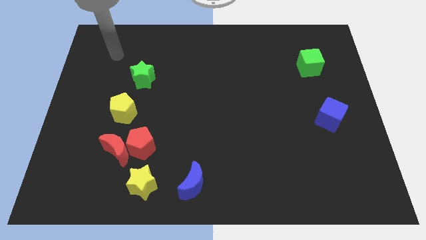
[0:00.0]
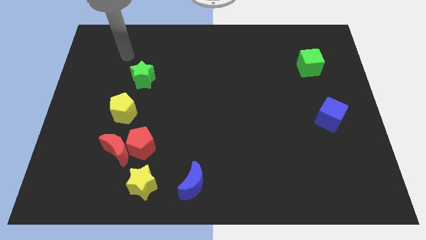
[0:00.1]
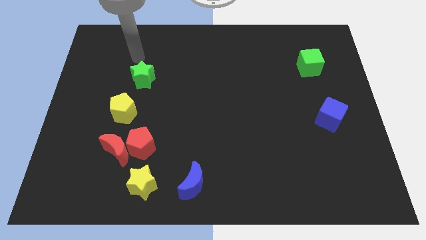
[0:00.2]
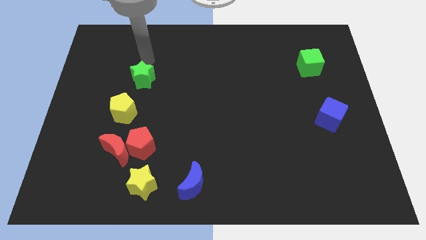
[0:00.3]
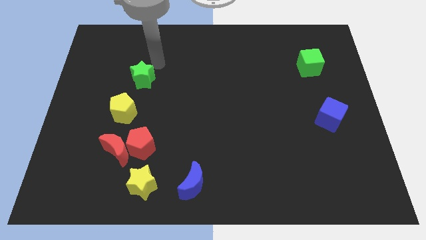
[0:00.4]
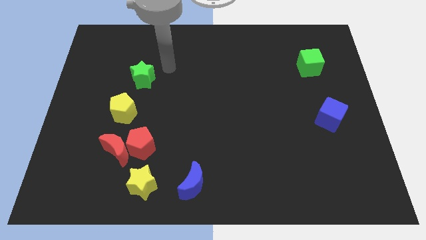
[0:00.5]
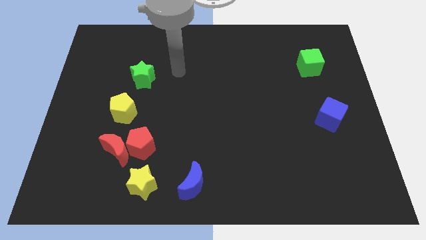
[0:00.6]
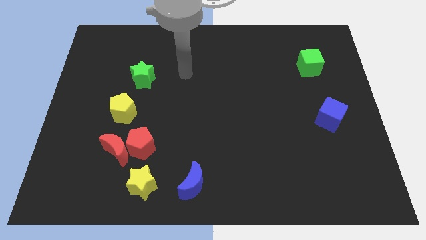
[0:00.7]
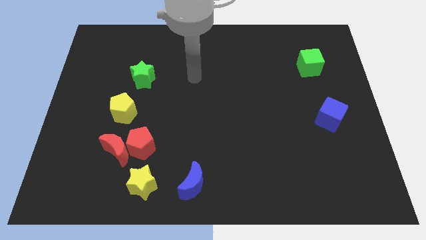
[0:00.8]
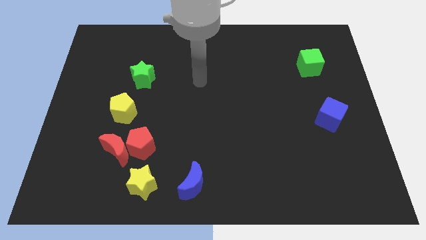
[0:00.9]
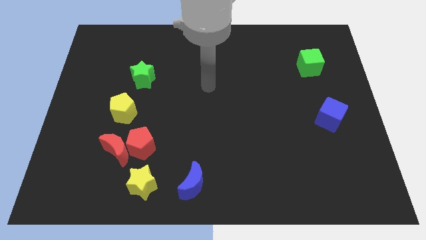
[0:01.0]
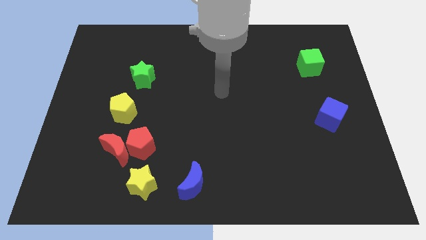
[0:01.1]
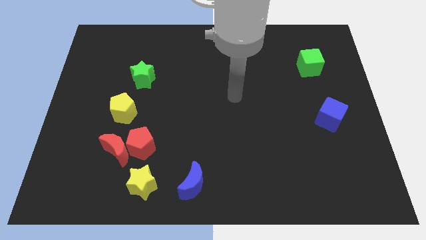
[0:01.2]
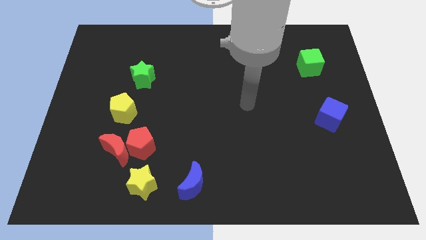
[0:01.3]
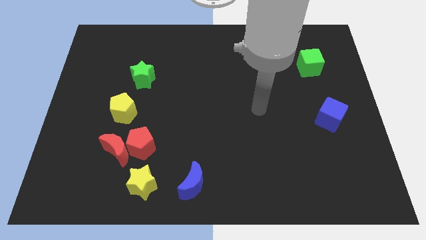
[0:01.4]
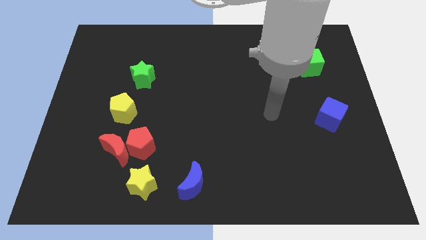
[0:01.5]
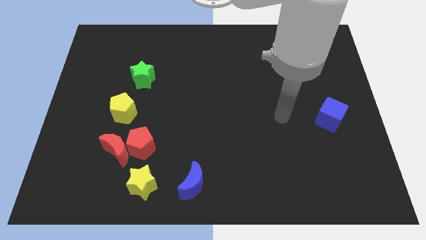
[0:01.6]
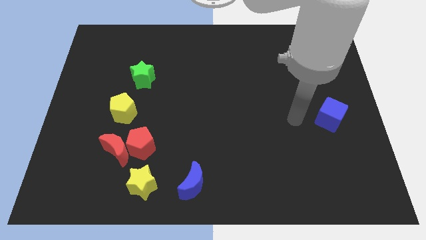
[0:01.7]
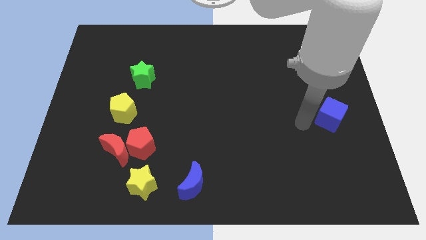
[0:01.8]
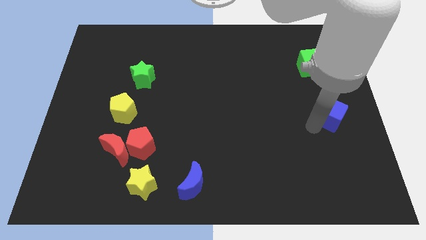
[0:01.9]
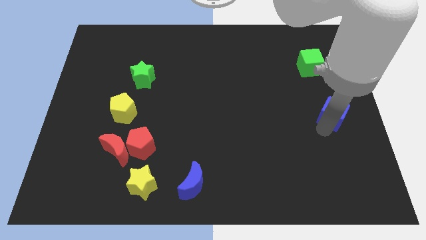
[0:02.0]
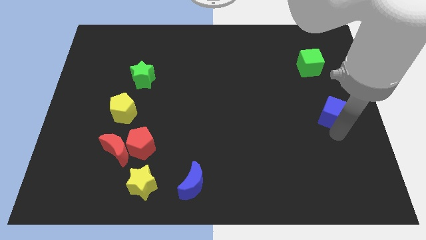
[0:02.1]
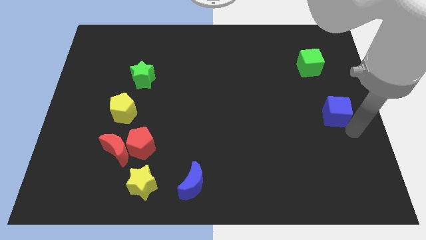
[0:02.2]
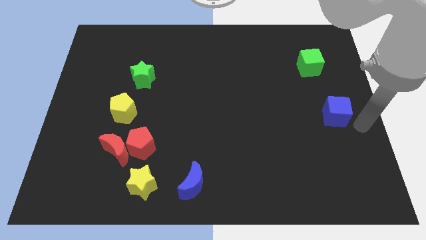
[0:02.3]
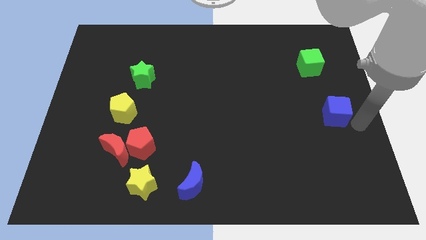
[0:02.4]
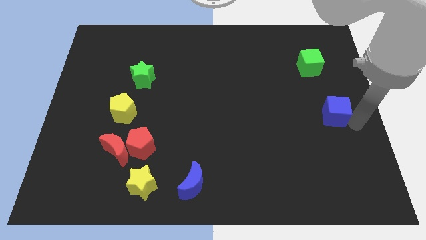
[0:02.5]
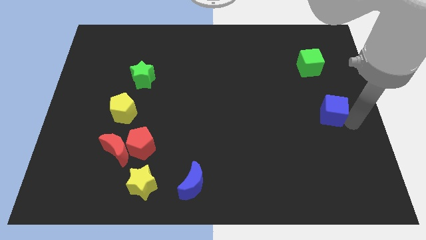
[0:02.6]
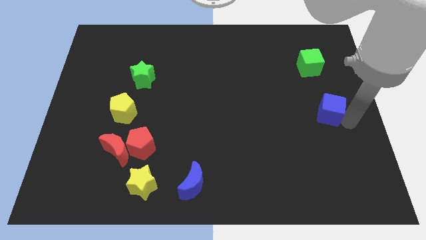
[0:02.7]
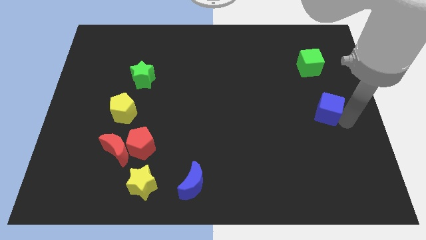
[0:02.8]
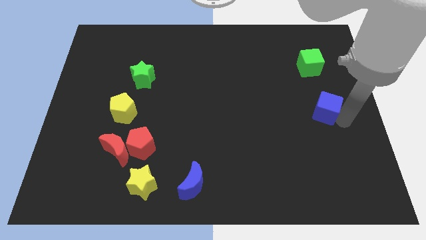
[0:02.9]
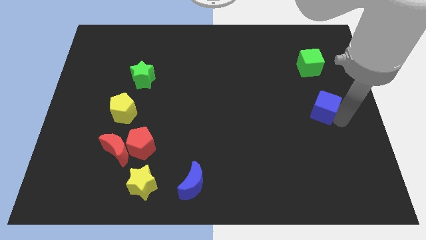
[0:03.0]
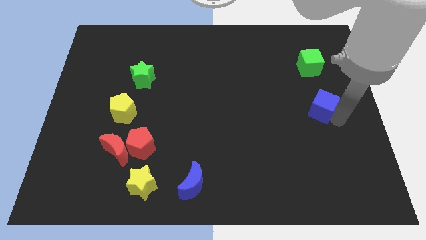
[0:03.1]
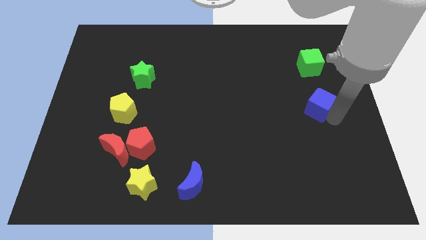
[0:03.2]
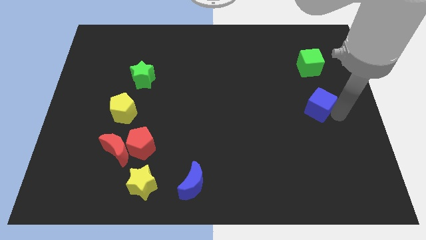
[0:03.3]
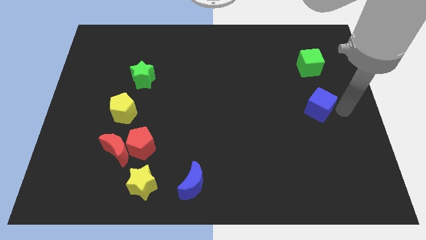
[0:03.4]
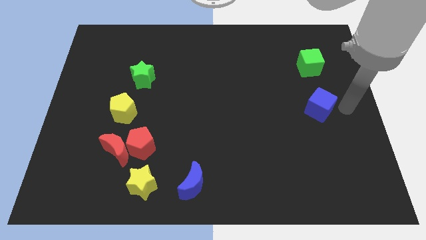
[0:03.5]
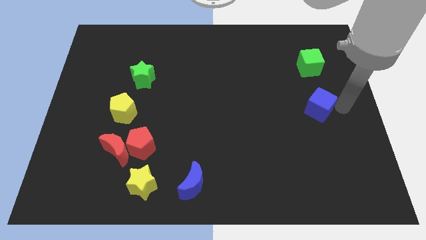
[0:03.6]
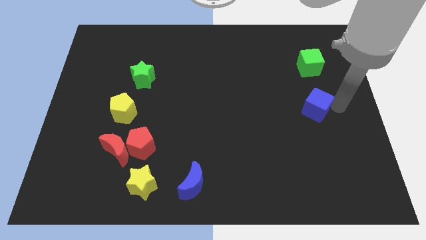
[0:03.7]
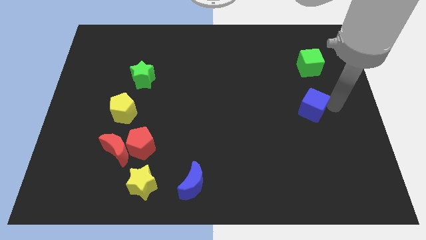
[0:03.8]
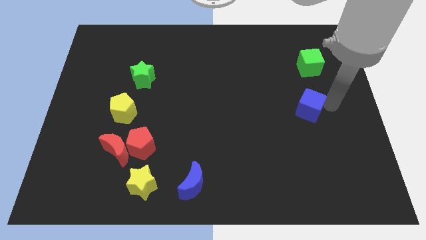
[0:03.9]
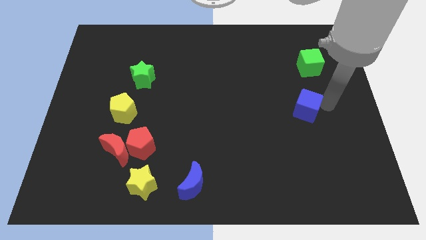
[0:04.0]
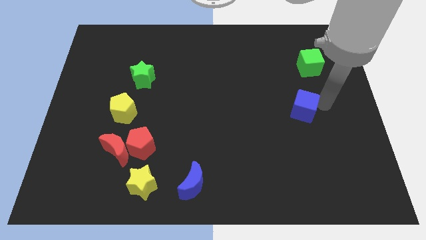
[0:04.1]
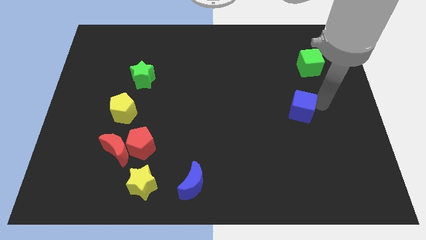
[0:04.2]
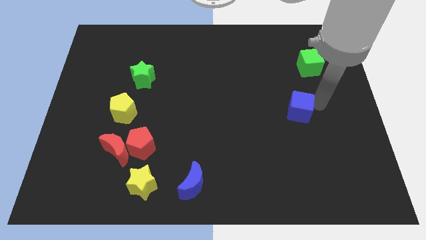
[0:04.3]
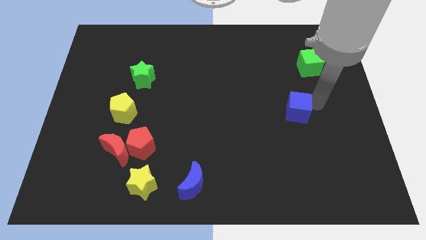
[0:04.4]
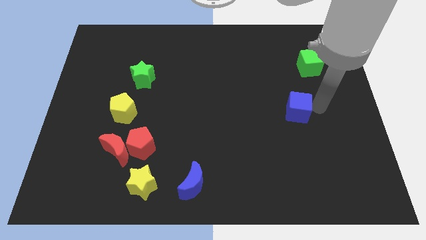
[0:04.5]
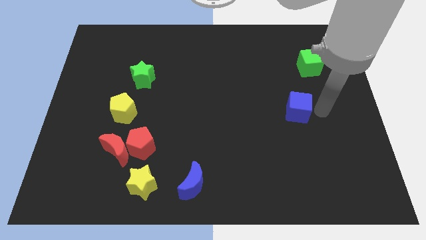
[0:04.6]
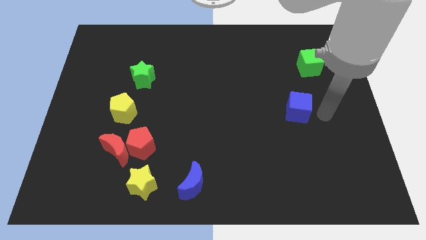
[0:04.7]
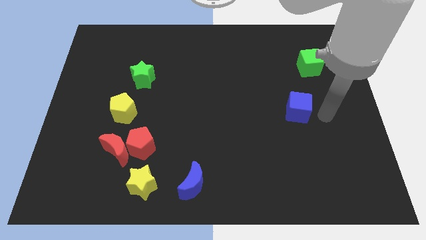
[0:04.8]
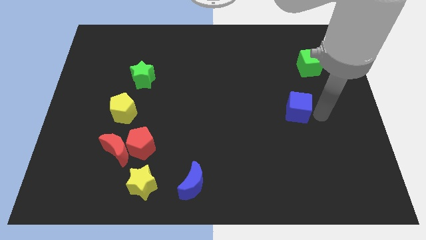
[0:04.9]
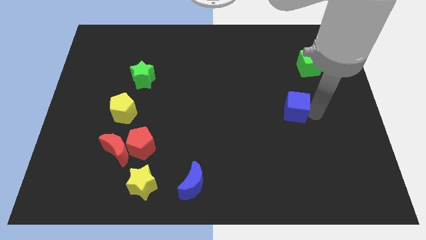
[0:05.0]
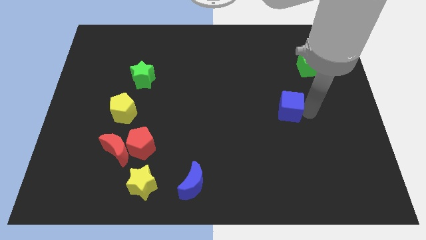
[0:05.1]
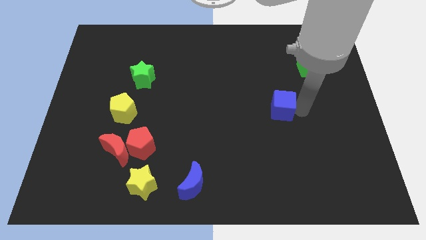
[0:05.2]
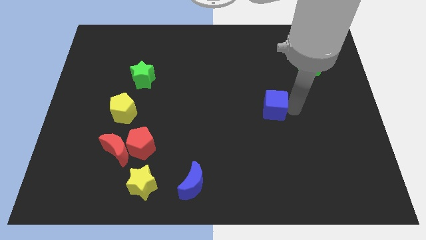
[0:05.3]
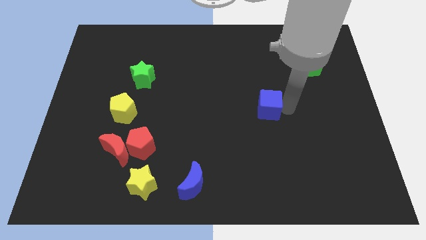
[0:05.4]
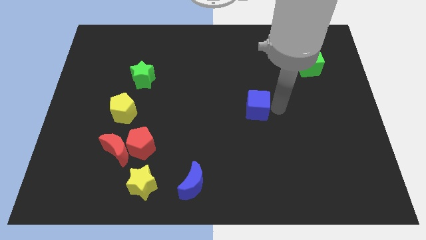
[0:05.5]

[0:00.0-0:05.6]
slide the blue cube to the middle of the board

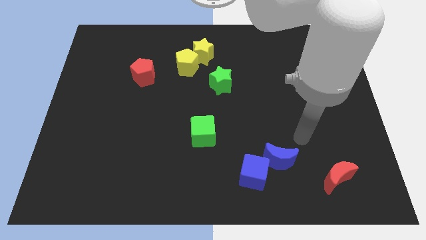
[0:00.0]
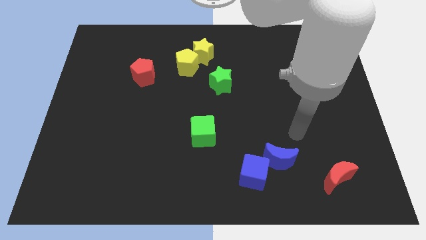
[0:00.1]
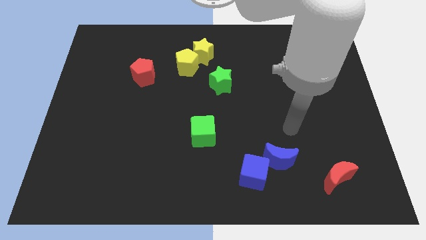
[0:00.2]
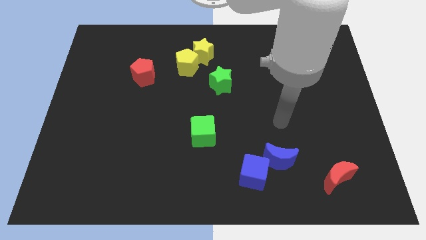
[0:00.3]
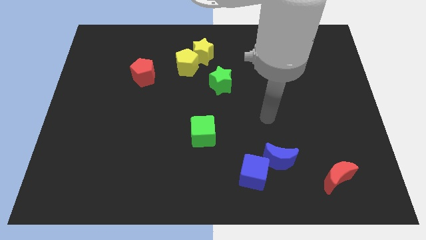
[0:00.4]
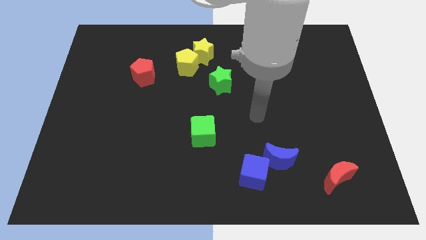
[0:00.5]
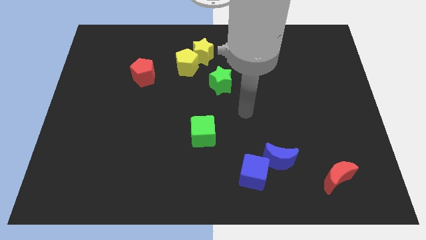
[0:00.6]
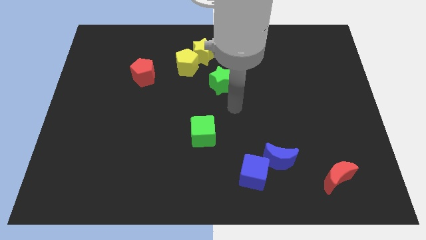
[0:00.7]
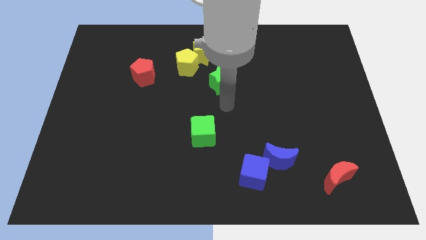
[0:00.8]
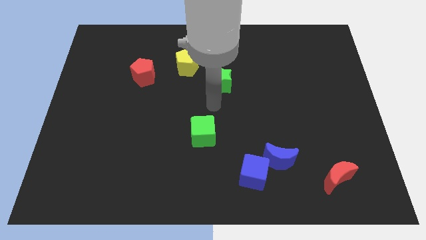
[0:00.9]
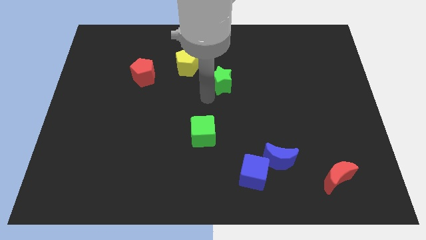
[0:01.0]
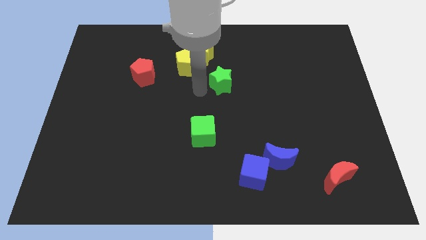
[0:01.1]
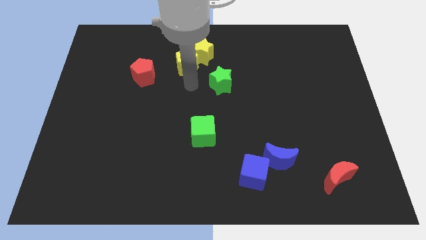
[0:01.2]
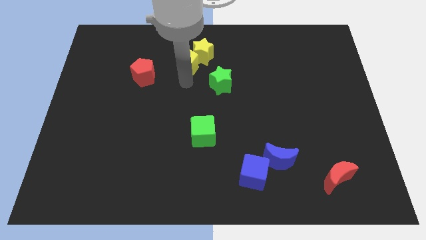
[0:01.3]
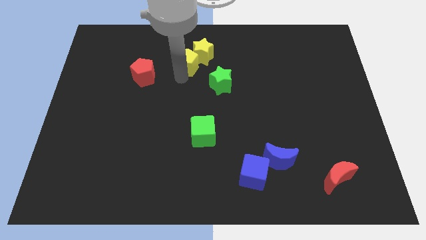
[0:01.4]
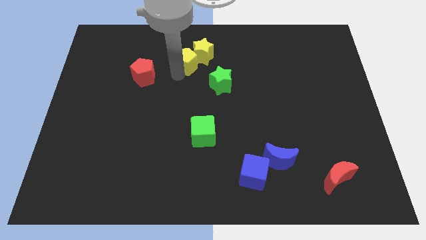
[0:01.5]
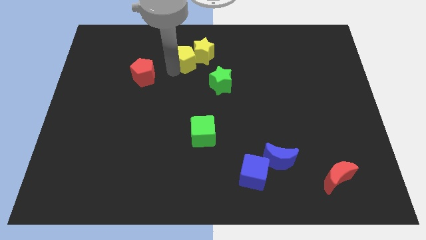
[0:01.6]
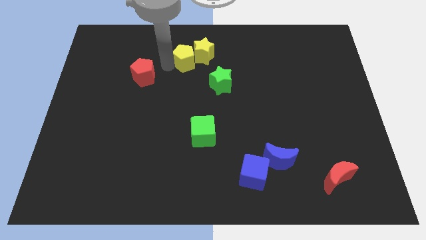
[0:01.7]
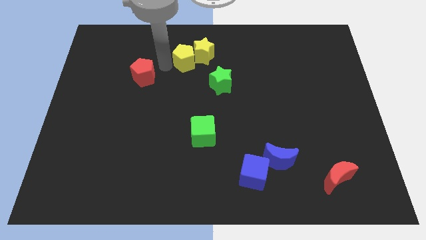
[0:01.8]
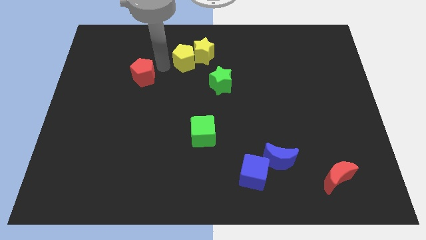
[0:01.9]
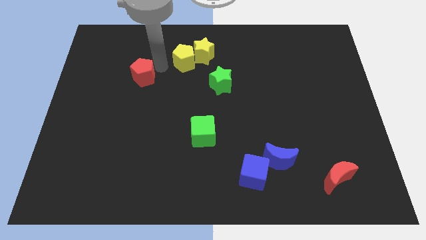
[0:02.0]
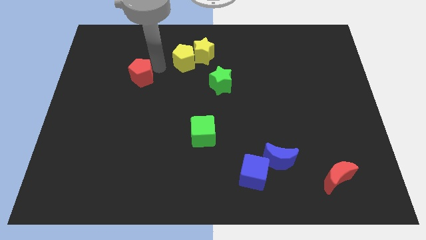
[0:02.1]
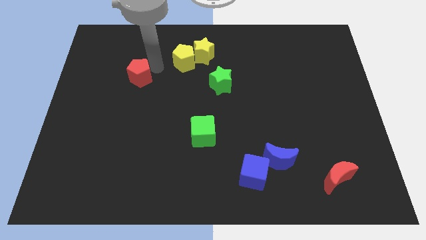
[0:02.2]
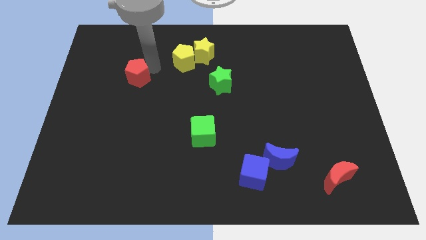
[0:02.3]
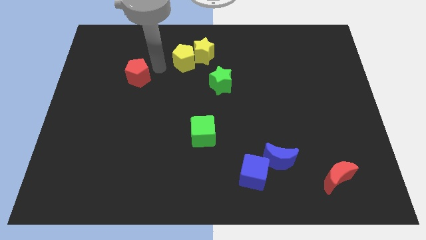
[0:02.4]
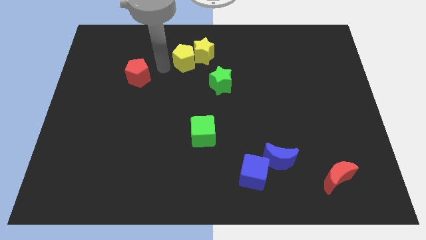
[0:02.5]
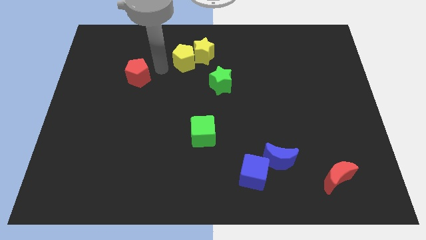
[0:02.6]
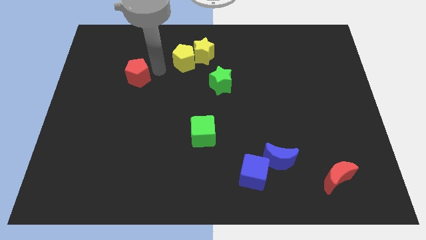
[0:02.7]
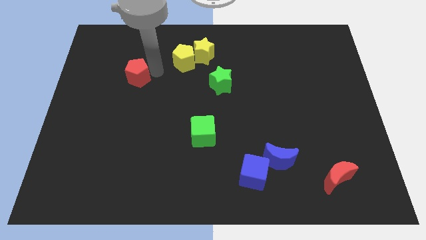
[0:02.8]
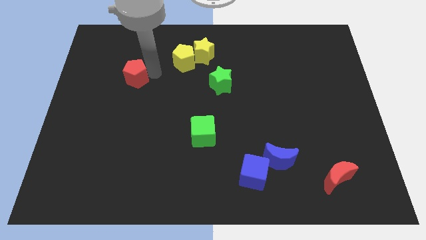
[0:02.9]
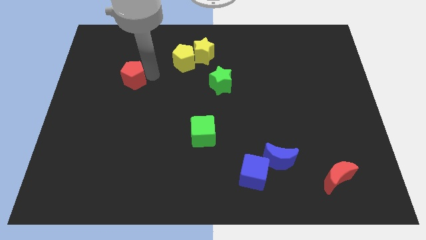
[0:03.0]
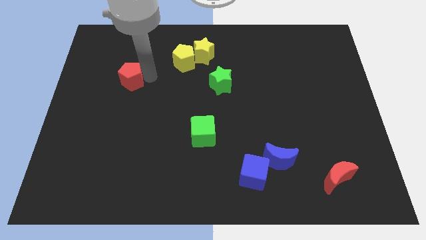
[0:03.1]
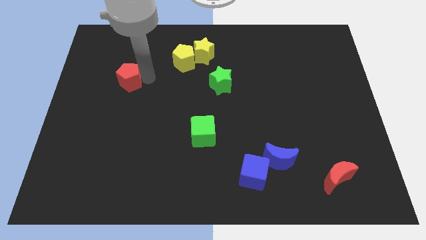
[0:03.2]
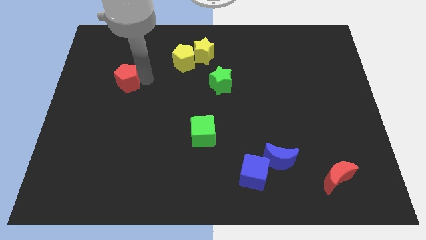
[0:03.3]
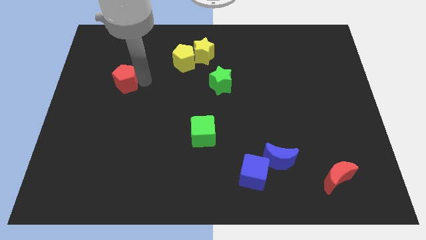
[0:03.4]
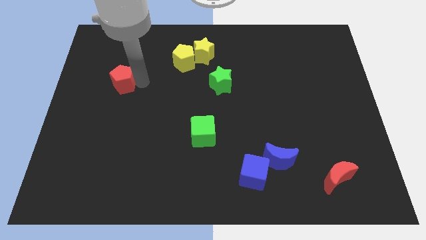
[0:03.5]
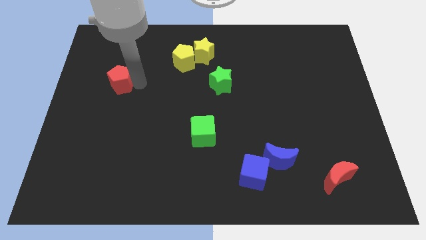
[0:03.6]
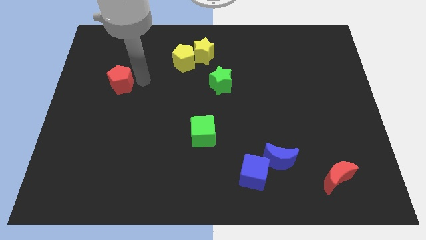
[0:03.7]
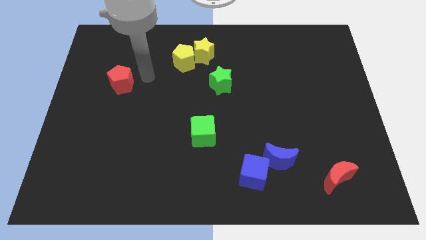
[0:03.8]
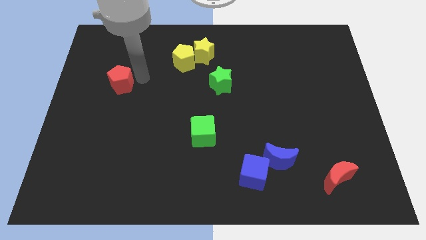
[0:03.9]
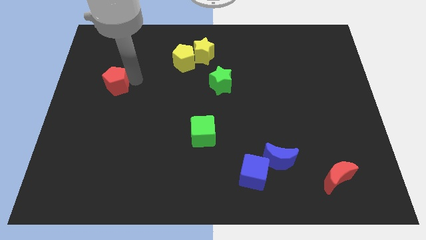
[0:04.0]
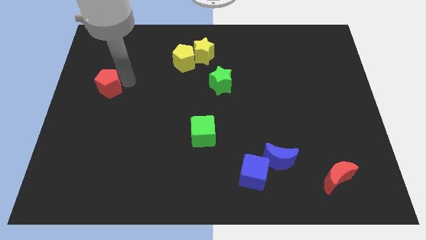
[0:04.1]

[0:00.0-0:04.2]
slide the red pentagon to the center left
